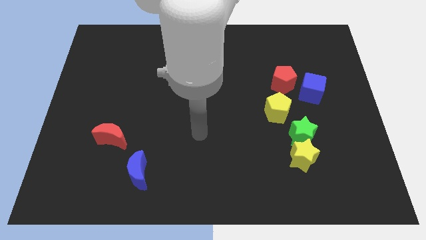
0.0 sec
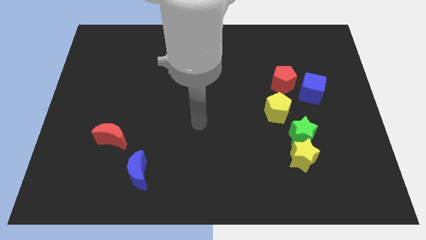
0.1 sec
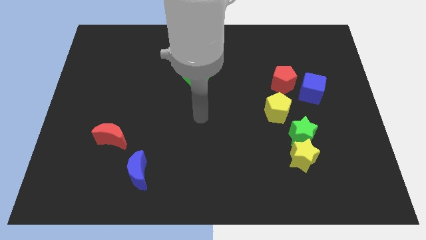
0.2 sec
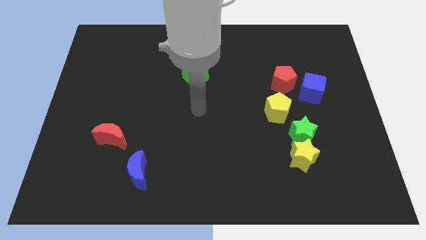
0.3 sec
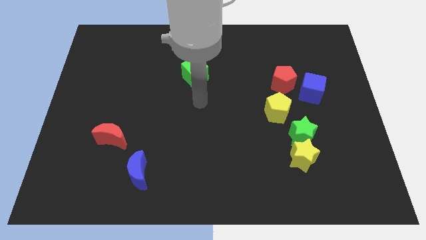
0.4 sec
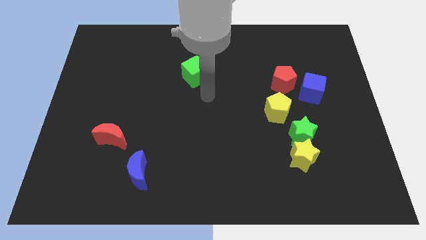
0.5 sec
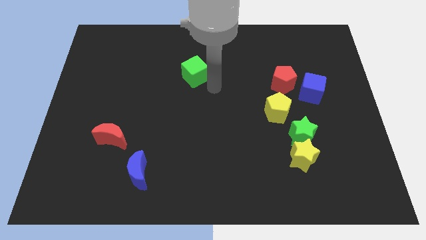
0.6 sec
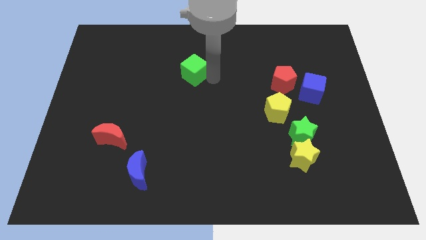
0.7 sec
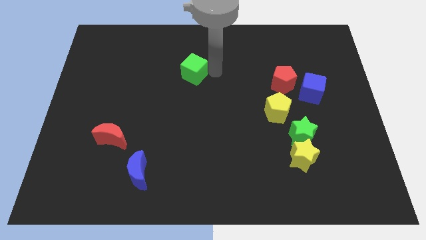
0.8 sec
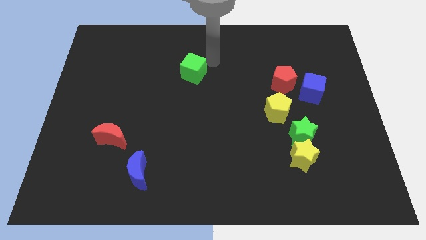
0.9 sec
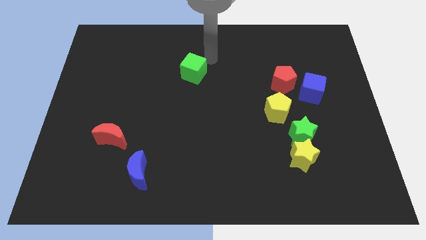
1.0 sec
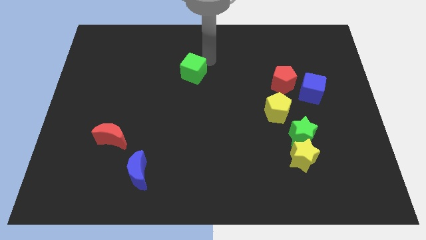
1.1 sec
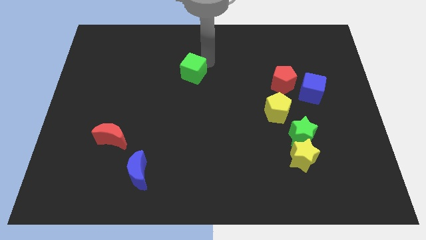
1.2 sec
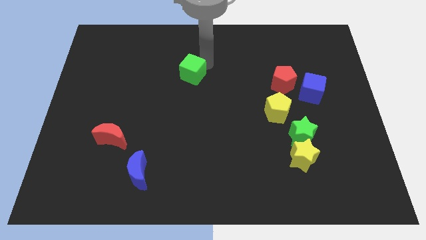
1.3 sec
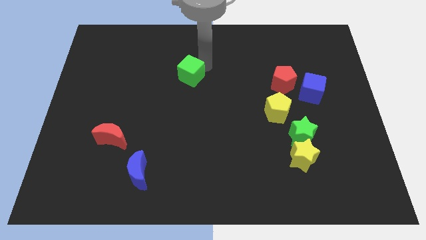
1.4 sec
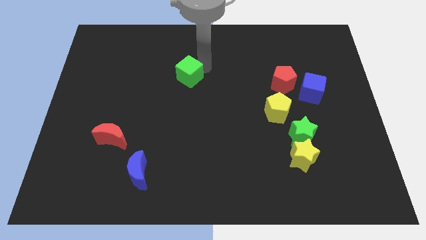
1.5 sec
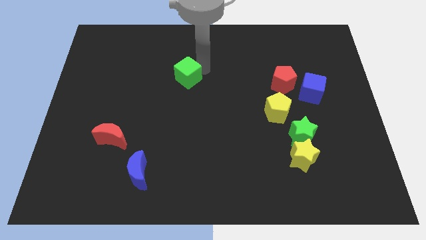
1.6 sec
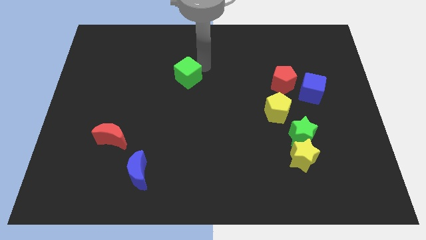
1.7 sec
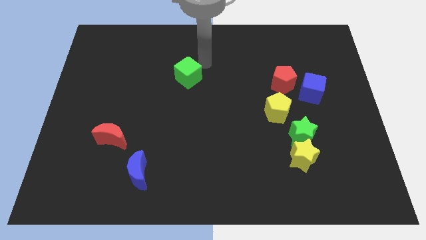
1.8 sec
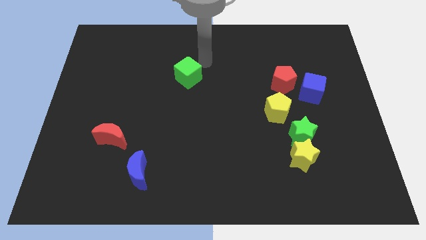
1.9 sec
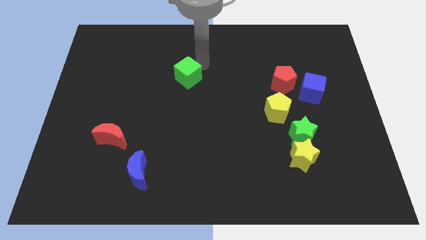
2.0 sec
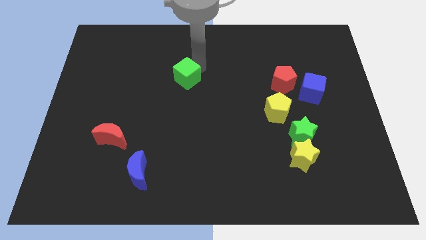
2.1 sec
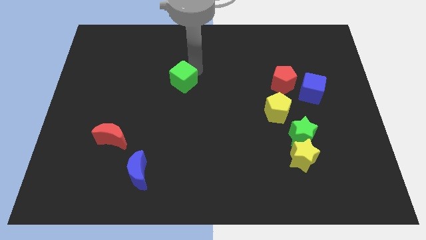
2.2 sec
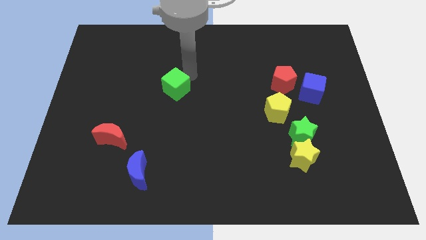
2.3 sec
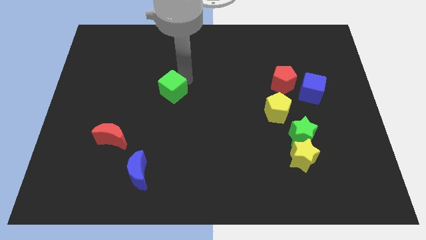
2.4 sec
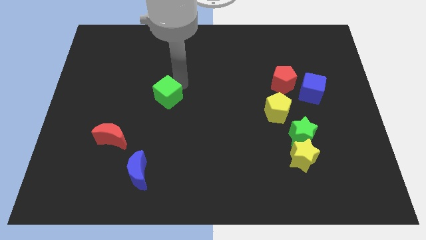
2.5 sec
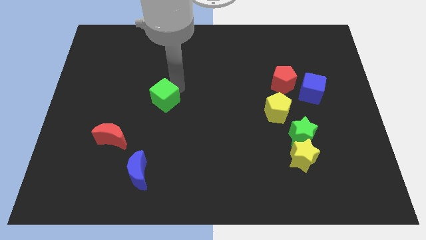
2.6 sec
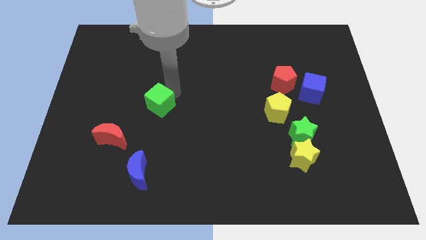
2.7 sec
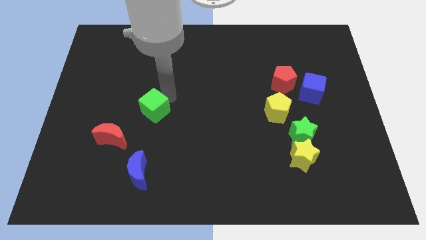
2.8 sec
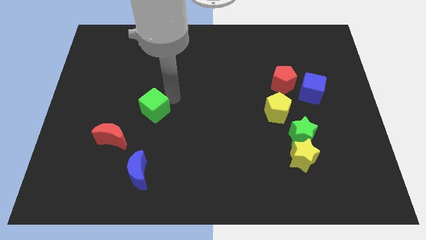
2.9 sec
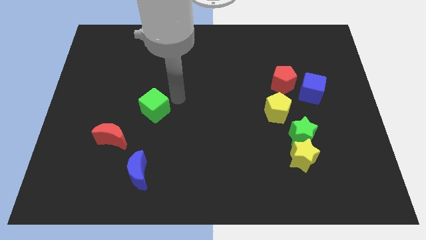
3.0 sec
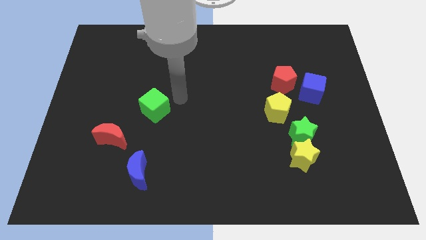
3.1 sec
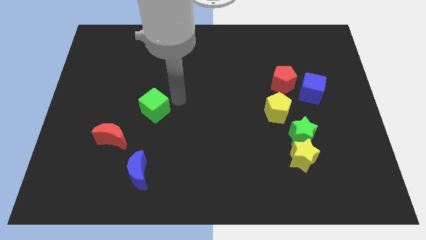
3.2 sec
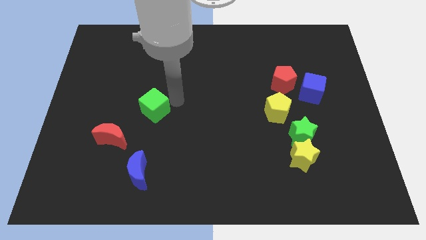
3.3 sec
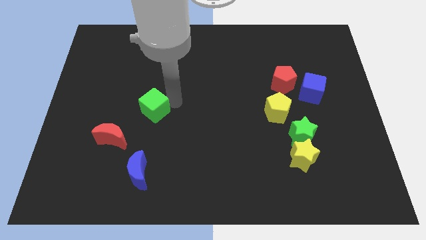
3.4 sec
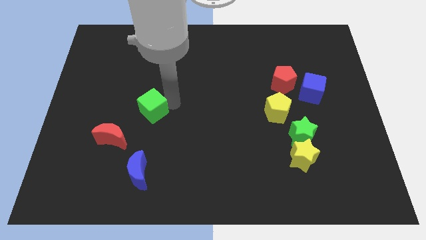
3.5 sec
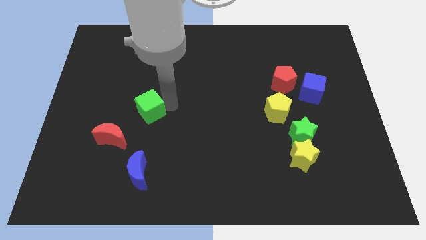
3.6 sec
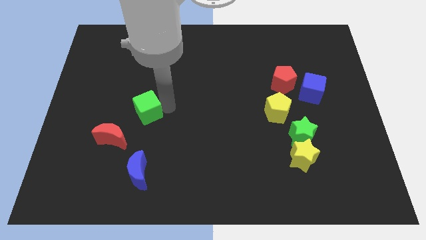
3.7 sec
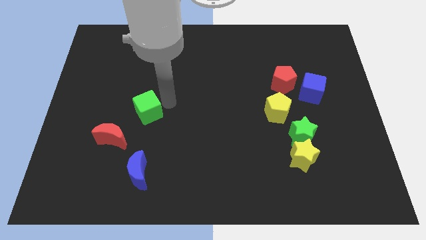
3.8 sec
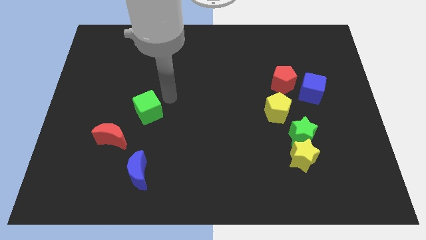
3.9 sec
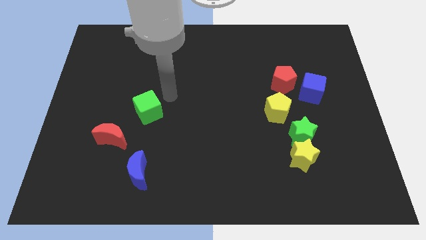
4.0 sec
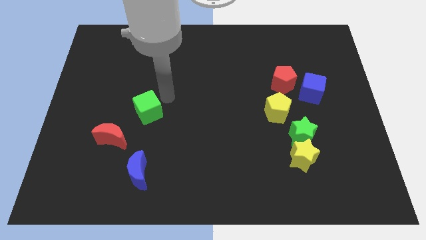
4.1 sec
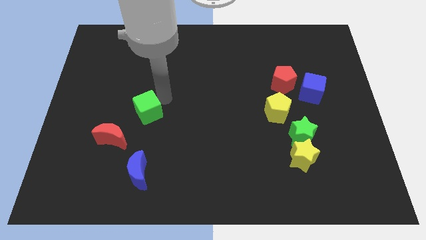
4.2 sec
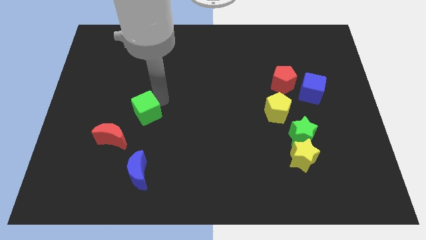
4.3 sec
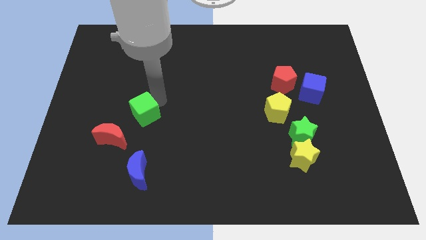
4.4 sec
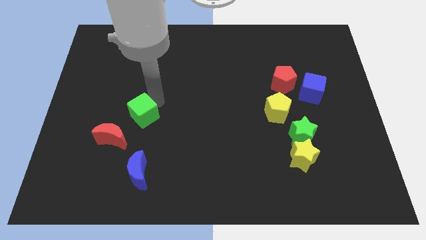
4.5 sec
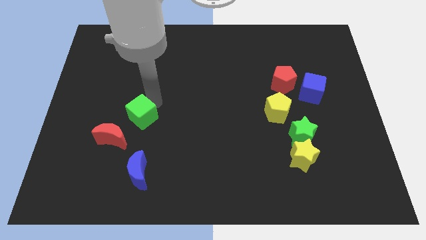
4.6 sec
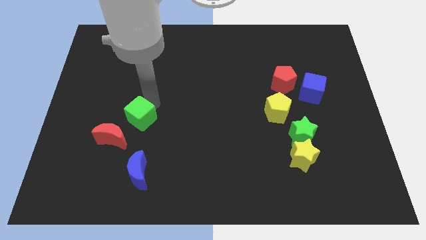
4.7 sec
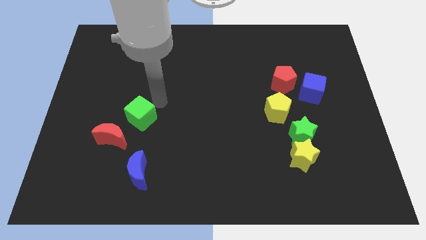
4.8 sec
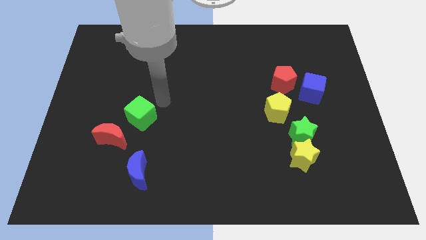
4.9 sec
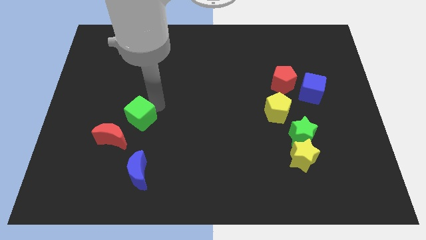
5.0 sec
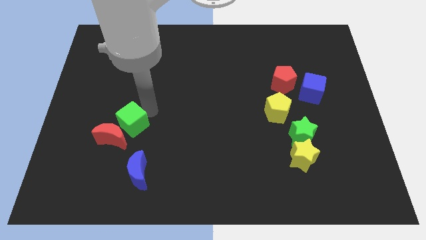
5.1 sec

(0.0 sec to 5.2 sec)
slide the green cube next to the red moon

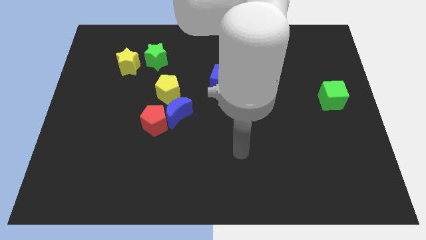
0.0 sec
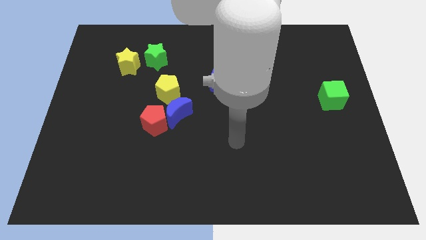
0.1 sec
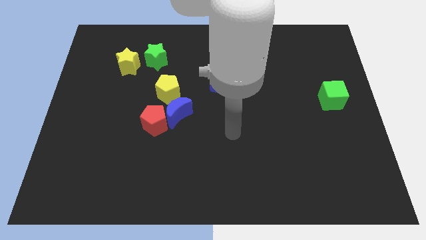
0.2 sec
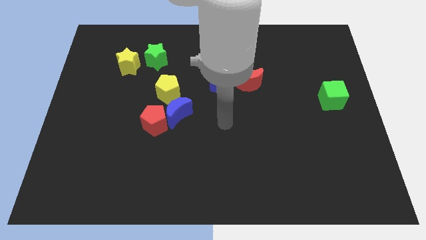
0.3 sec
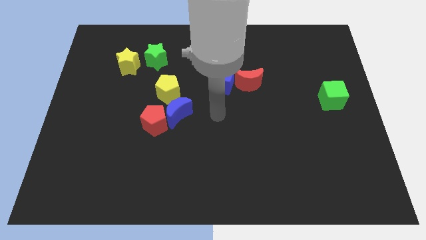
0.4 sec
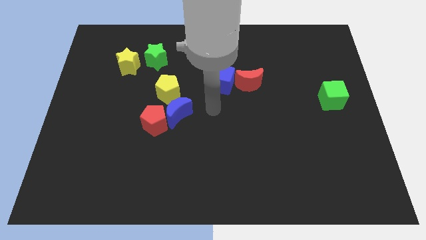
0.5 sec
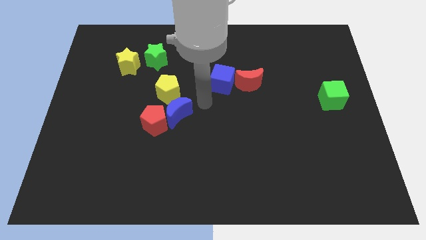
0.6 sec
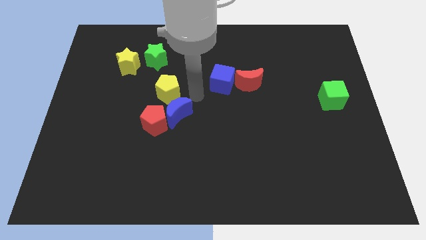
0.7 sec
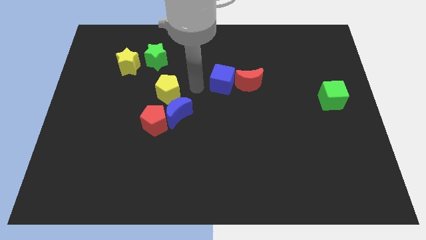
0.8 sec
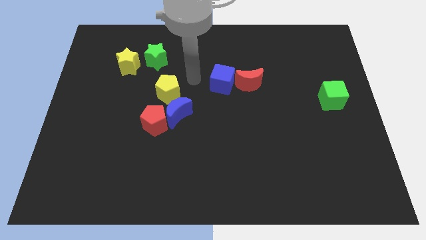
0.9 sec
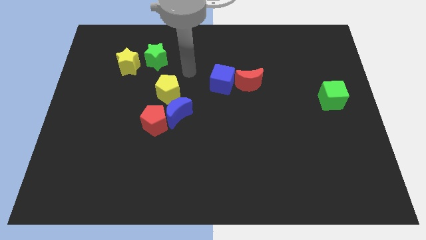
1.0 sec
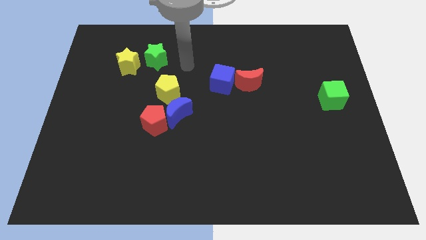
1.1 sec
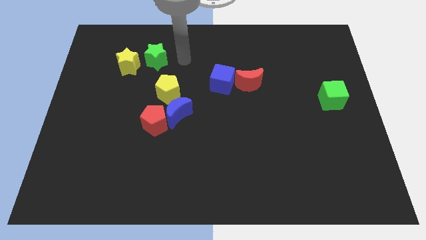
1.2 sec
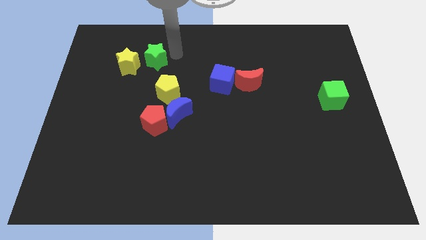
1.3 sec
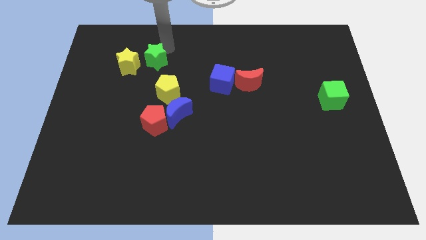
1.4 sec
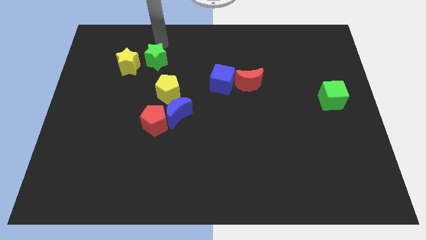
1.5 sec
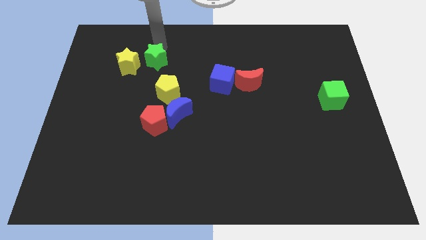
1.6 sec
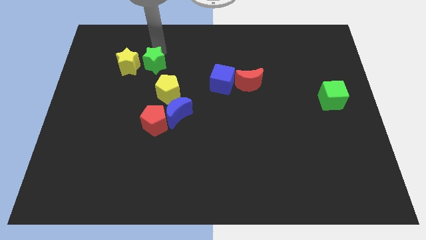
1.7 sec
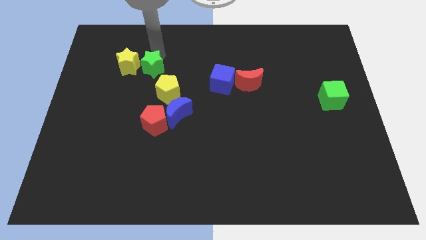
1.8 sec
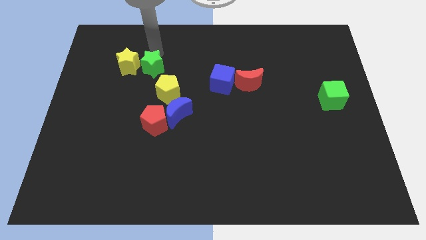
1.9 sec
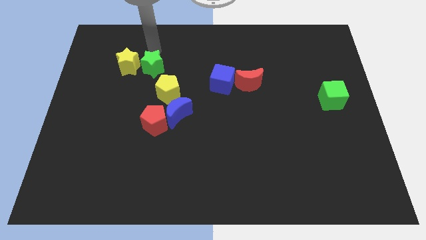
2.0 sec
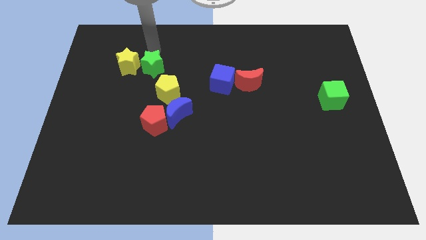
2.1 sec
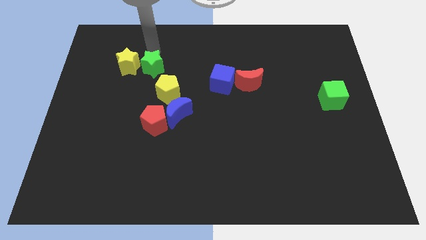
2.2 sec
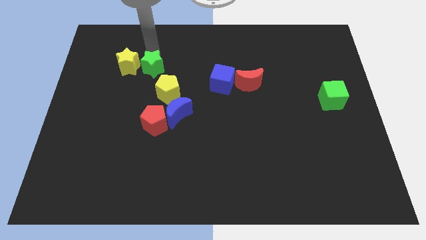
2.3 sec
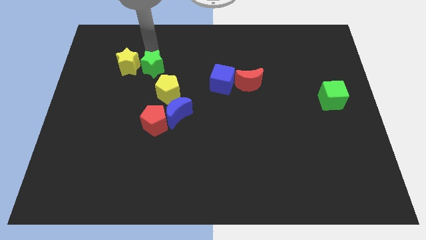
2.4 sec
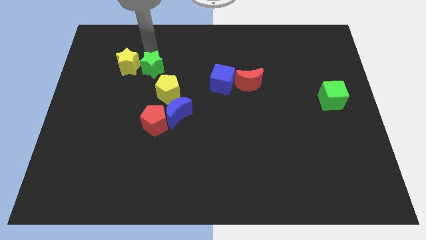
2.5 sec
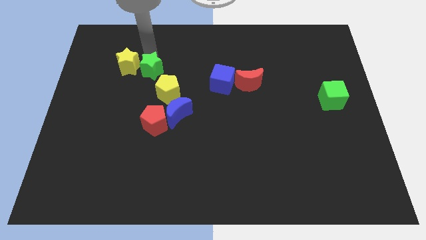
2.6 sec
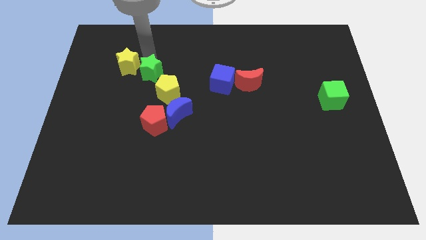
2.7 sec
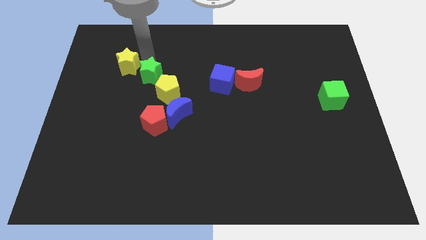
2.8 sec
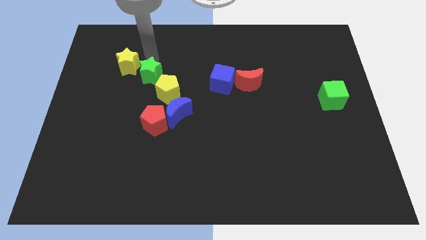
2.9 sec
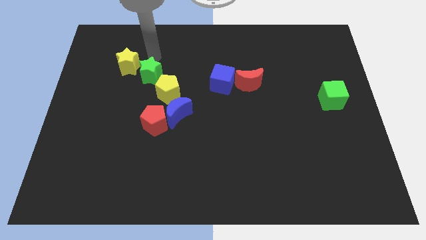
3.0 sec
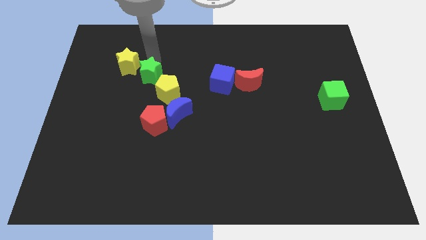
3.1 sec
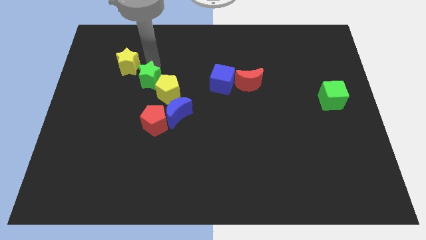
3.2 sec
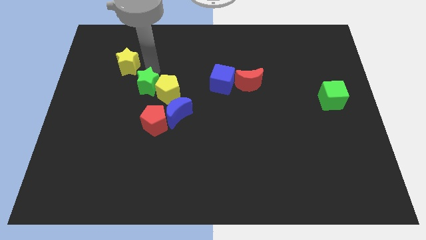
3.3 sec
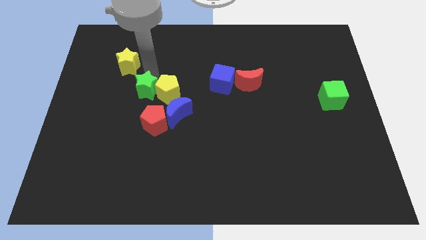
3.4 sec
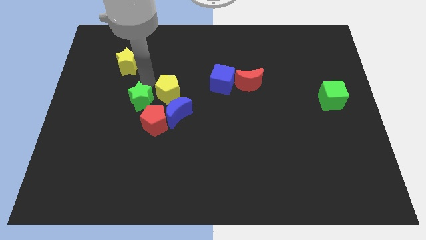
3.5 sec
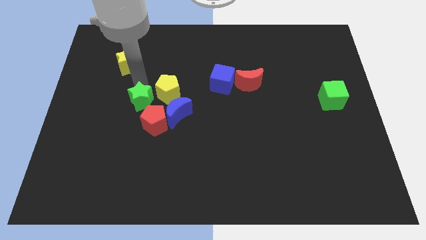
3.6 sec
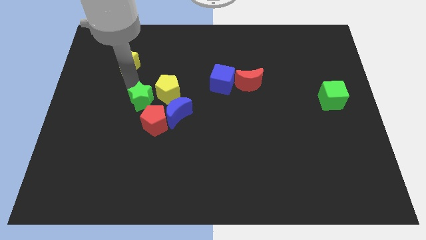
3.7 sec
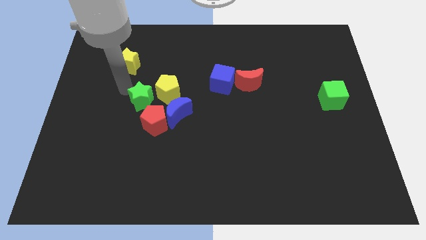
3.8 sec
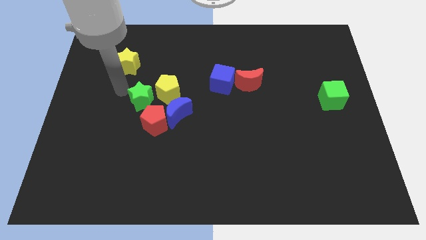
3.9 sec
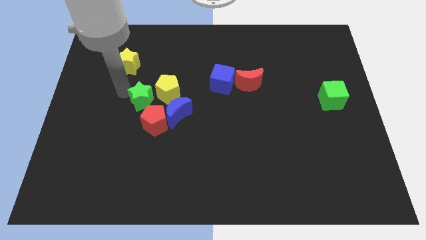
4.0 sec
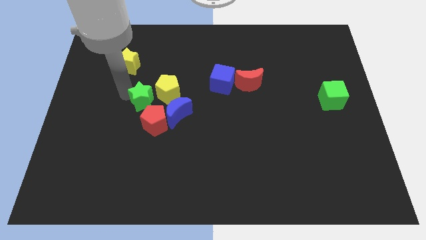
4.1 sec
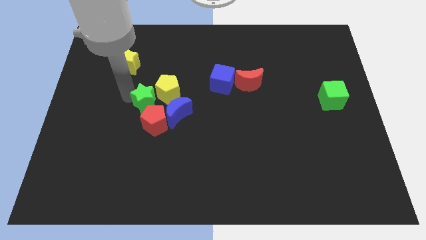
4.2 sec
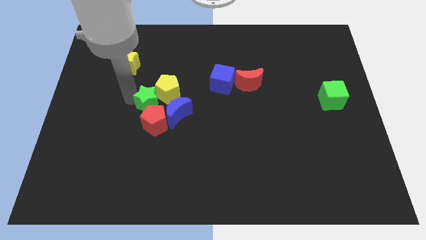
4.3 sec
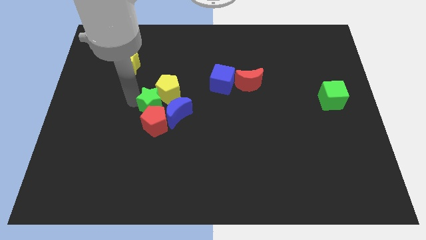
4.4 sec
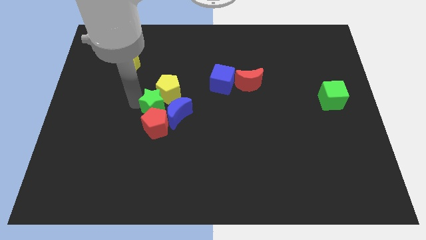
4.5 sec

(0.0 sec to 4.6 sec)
push the green star close to the blue moon
